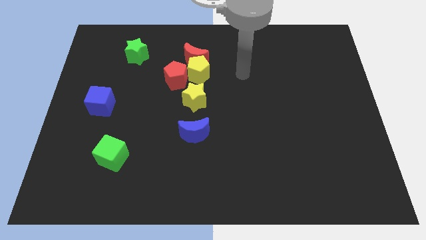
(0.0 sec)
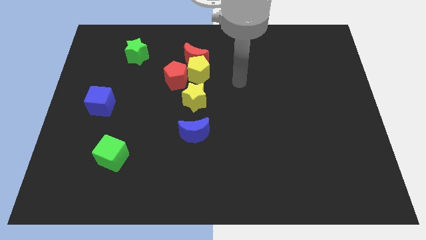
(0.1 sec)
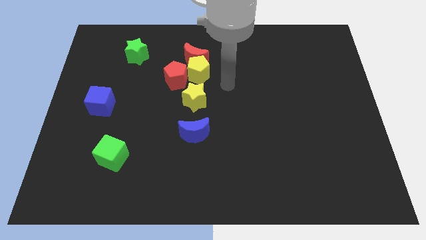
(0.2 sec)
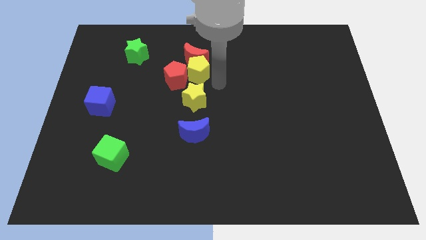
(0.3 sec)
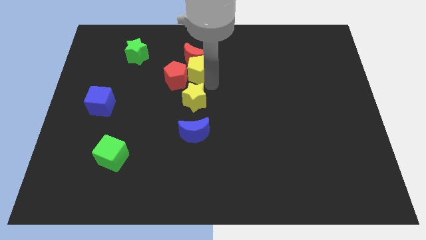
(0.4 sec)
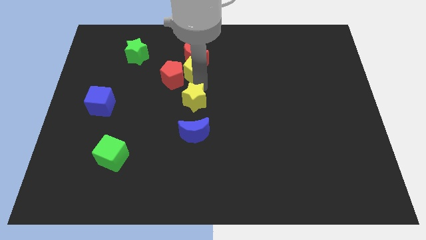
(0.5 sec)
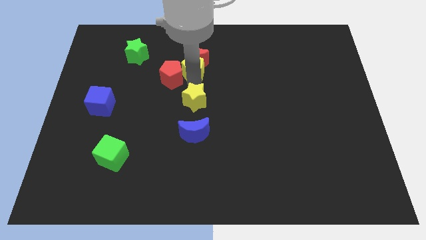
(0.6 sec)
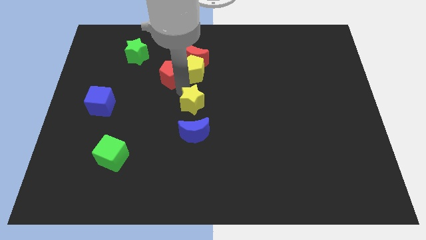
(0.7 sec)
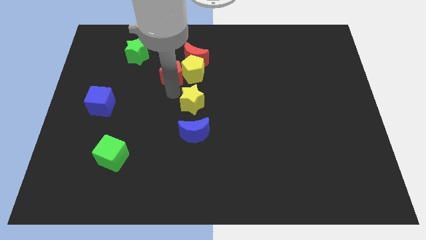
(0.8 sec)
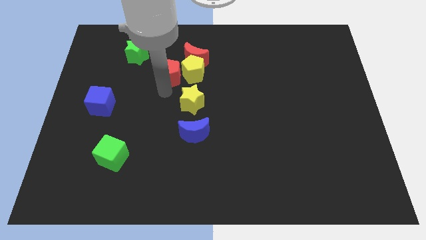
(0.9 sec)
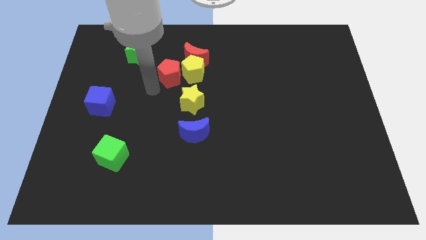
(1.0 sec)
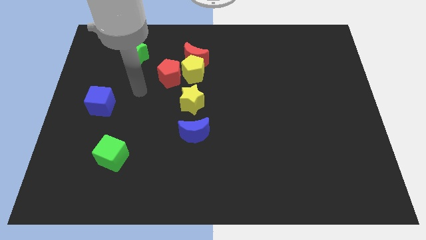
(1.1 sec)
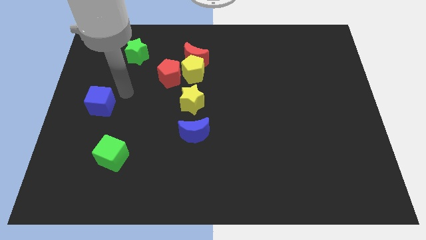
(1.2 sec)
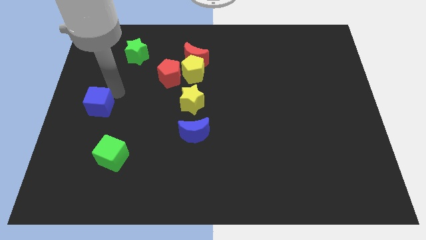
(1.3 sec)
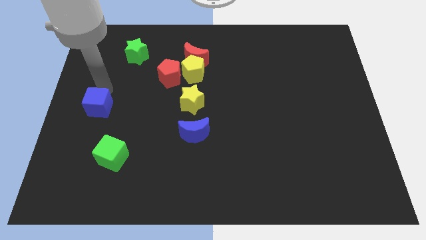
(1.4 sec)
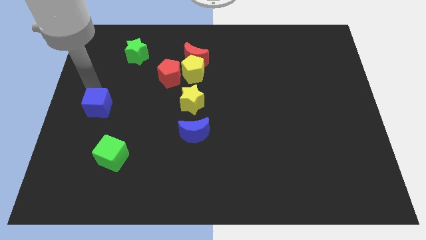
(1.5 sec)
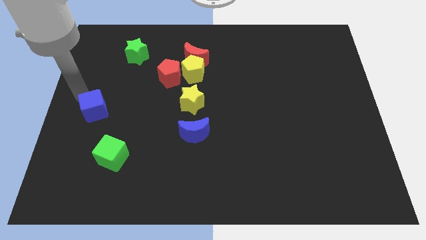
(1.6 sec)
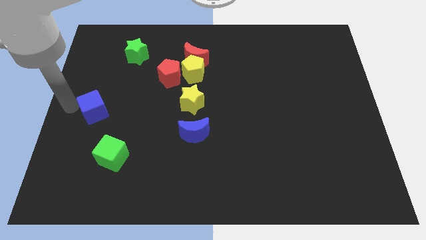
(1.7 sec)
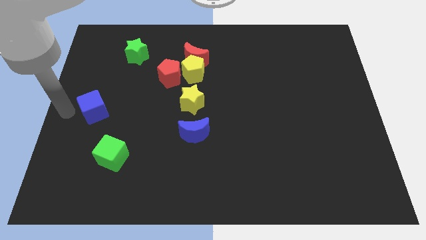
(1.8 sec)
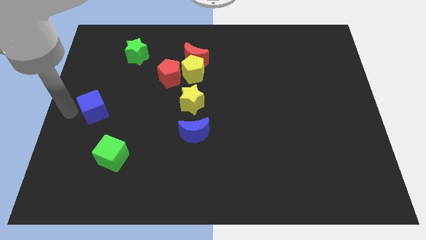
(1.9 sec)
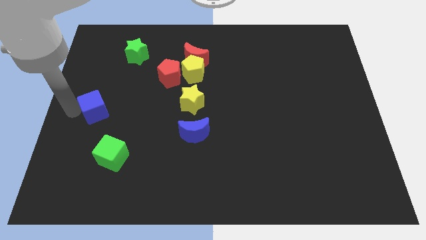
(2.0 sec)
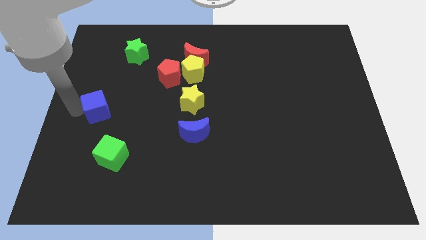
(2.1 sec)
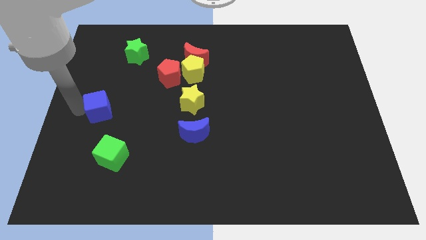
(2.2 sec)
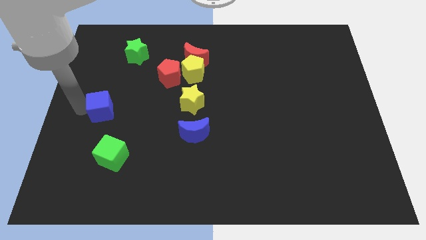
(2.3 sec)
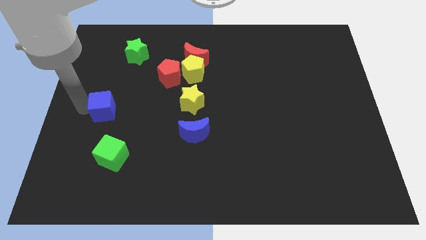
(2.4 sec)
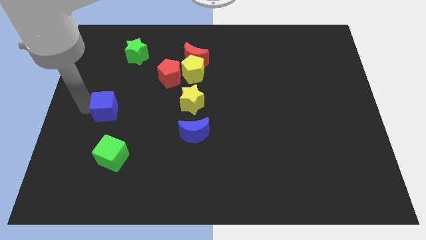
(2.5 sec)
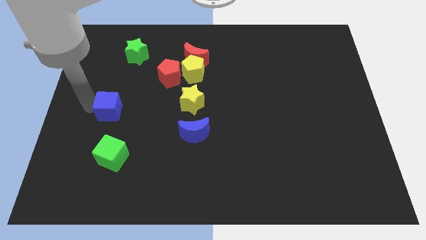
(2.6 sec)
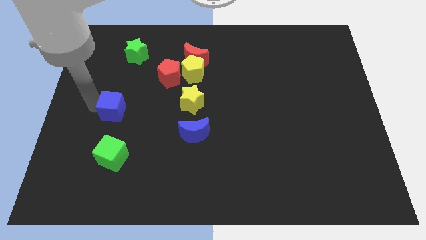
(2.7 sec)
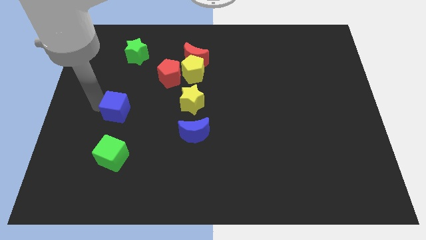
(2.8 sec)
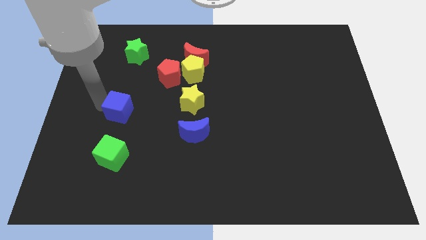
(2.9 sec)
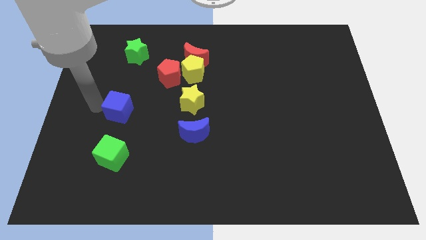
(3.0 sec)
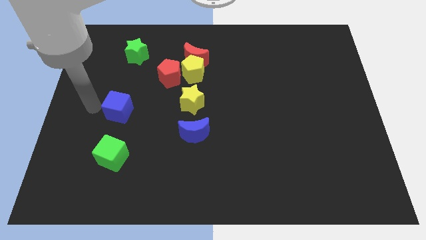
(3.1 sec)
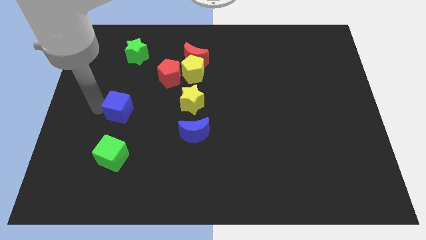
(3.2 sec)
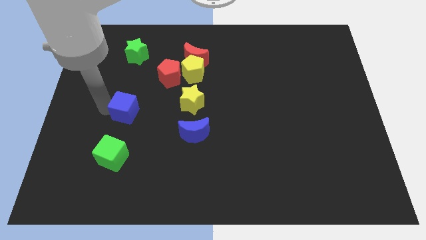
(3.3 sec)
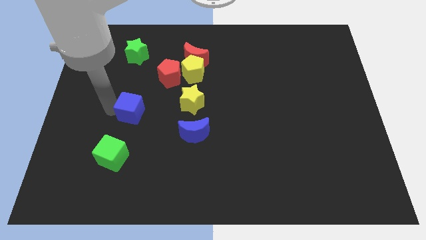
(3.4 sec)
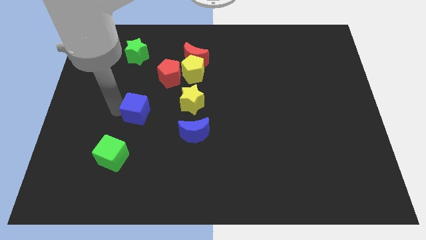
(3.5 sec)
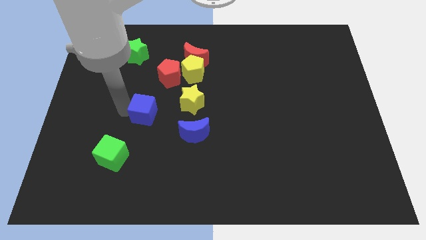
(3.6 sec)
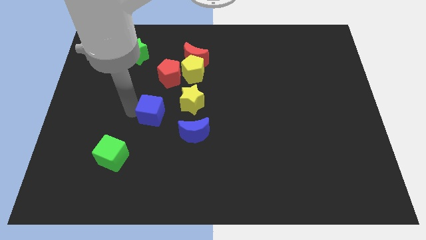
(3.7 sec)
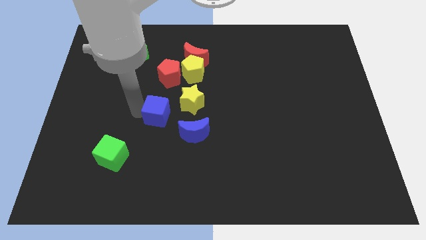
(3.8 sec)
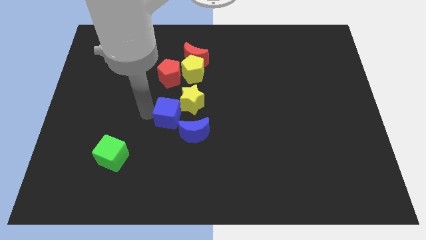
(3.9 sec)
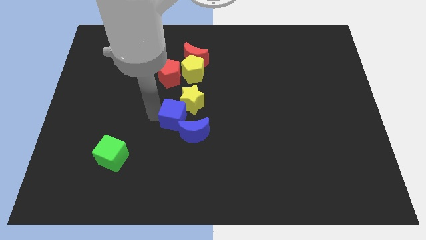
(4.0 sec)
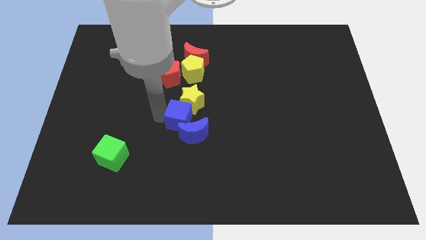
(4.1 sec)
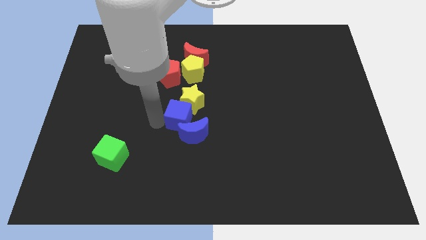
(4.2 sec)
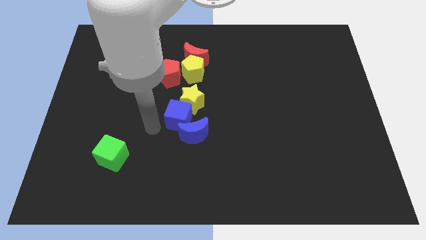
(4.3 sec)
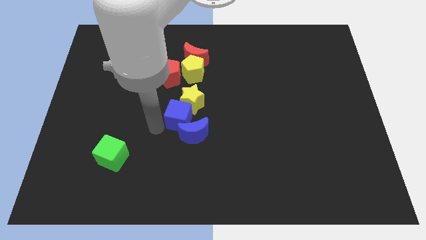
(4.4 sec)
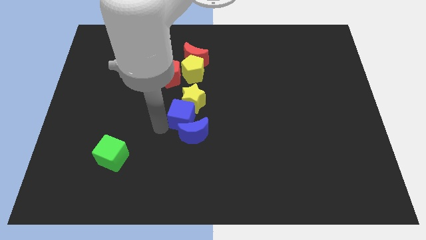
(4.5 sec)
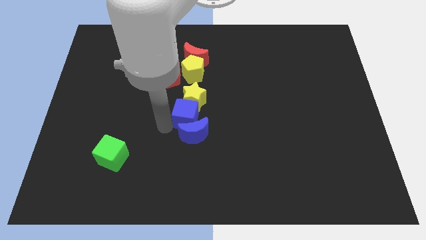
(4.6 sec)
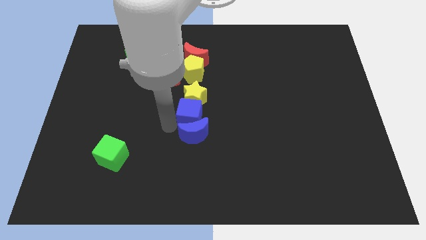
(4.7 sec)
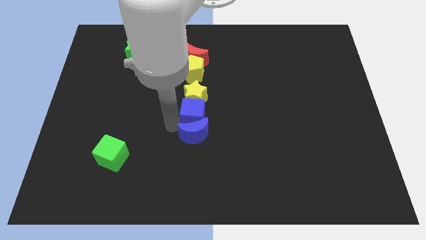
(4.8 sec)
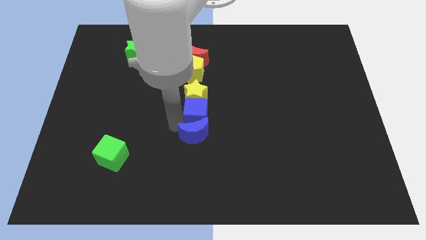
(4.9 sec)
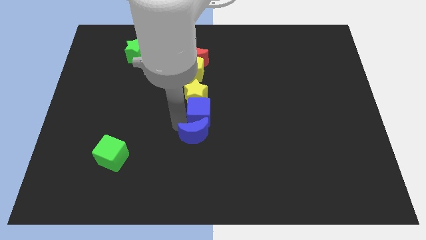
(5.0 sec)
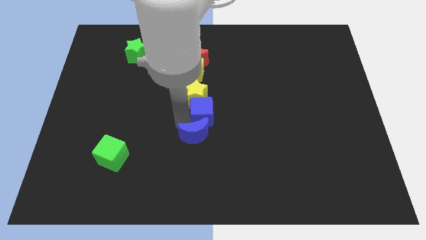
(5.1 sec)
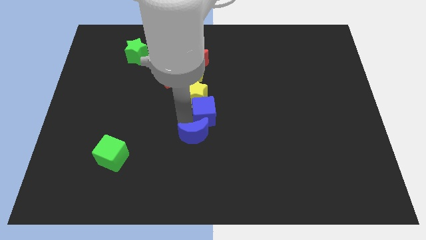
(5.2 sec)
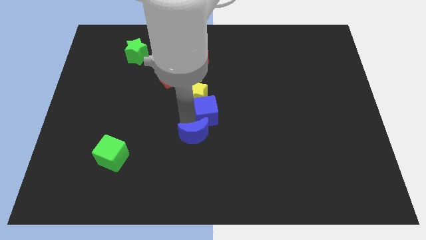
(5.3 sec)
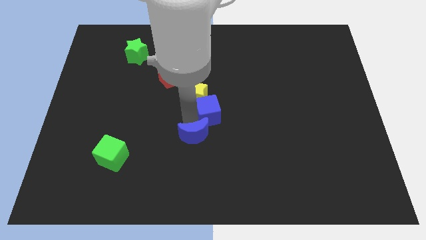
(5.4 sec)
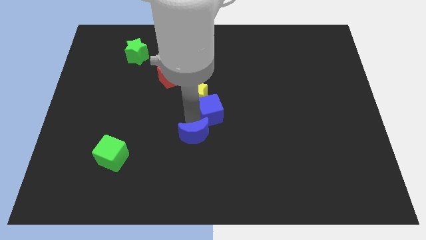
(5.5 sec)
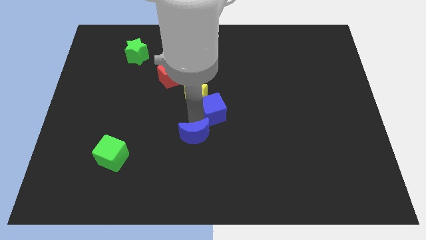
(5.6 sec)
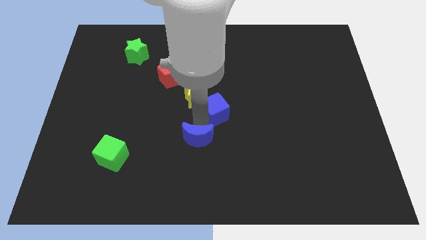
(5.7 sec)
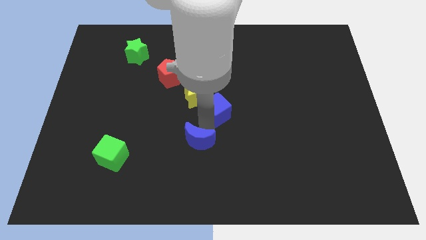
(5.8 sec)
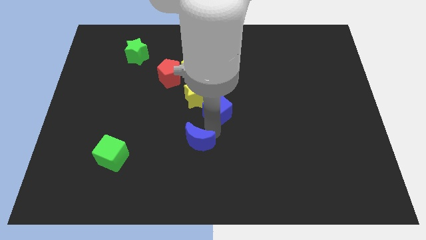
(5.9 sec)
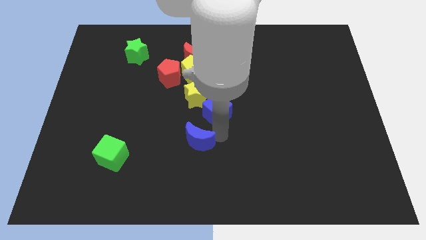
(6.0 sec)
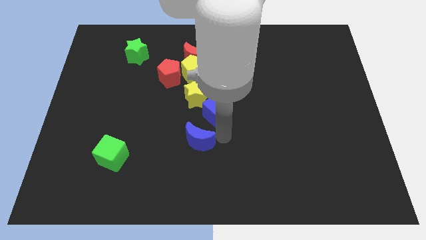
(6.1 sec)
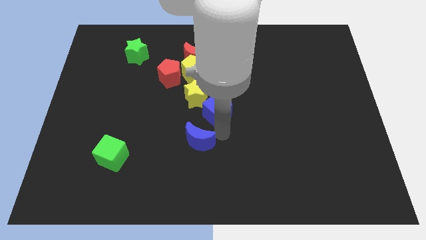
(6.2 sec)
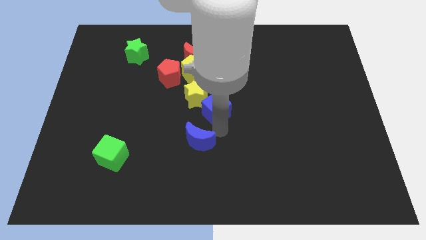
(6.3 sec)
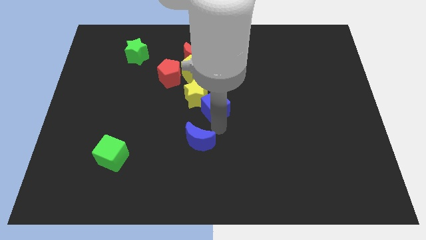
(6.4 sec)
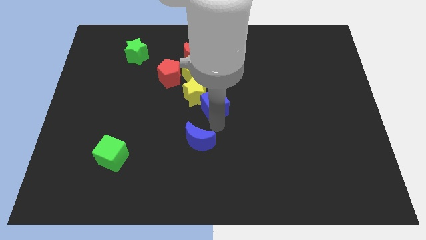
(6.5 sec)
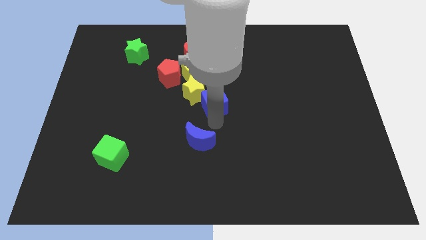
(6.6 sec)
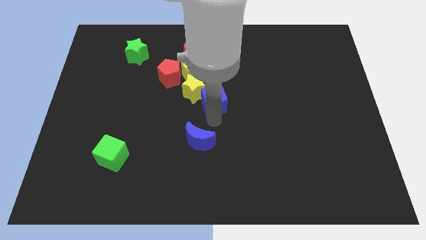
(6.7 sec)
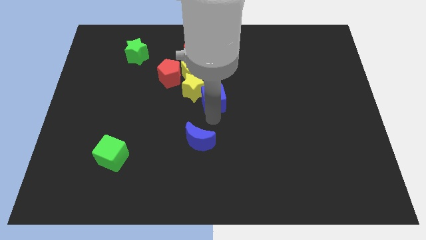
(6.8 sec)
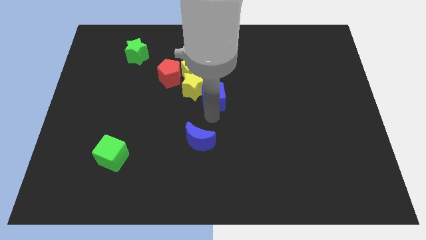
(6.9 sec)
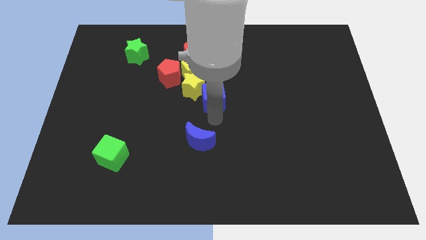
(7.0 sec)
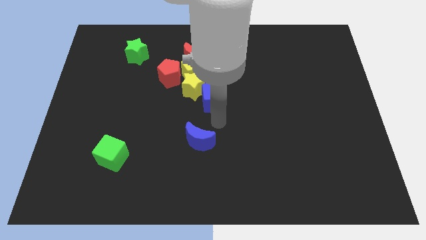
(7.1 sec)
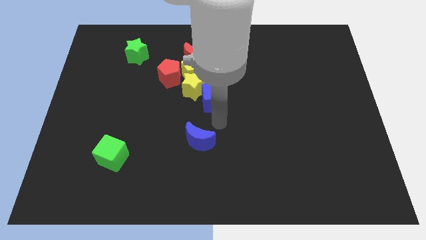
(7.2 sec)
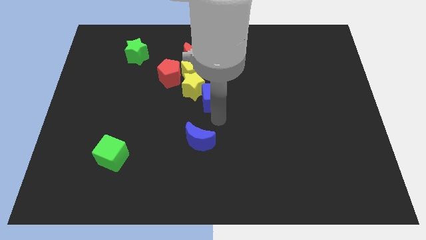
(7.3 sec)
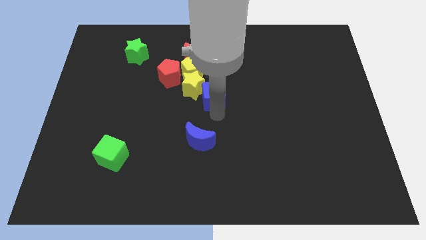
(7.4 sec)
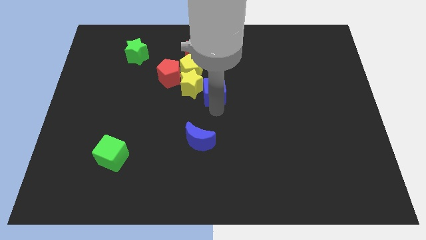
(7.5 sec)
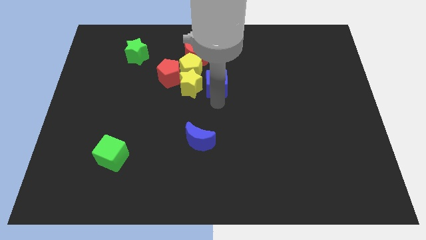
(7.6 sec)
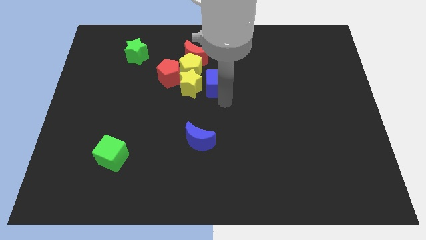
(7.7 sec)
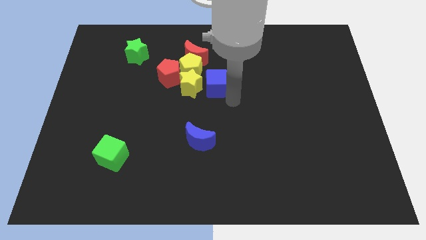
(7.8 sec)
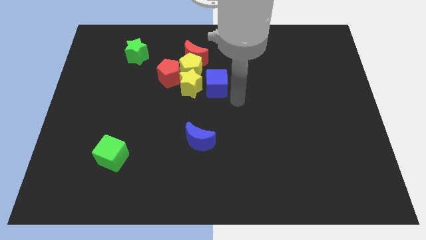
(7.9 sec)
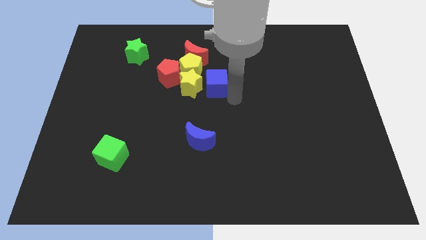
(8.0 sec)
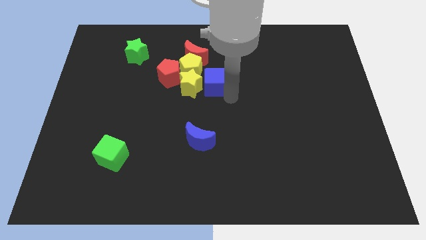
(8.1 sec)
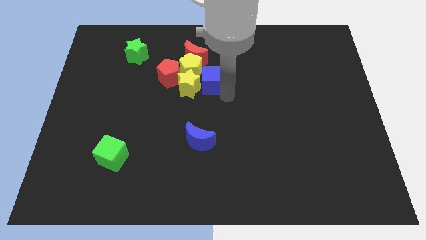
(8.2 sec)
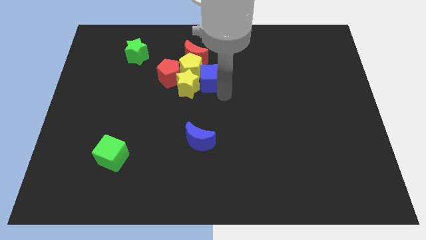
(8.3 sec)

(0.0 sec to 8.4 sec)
push the blue cube towards the yellow pentagon

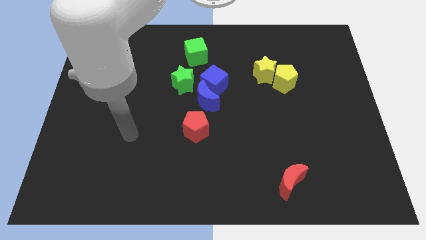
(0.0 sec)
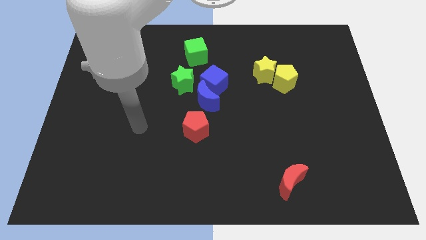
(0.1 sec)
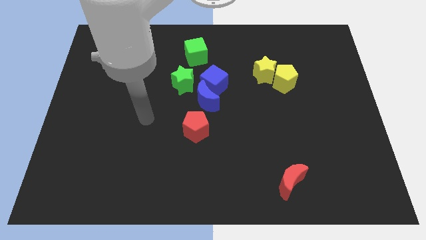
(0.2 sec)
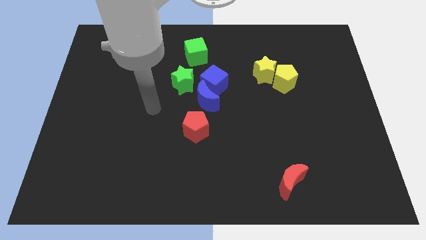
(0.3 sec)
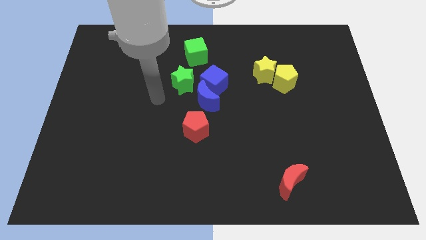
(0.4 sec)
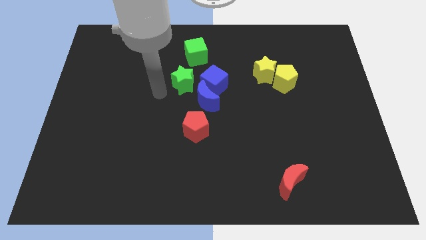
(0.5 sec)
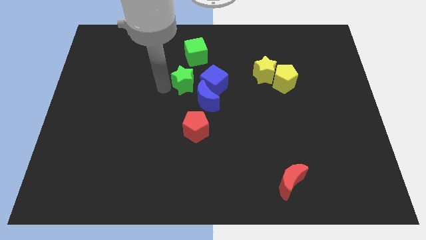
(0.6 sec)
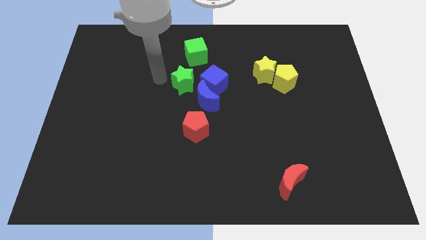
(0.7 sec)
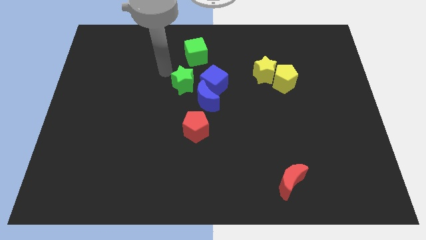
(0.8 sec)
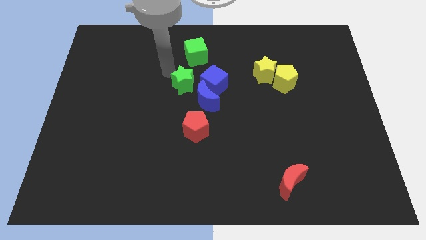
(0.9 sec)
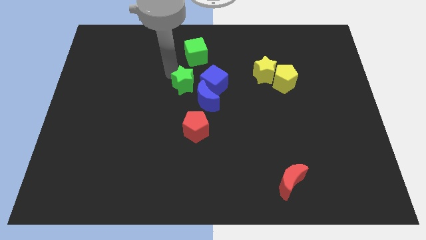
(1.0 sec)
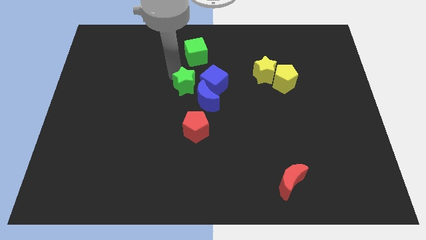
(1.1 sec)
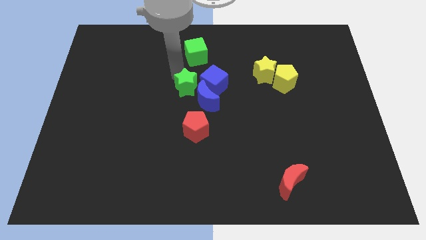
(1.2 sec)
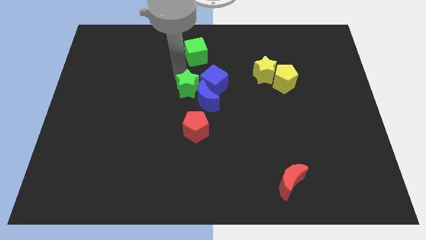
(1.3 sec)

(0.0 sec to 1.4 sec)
put the green star close to the blue moon
